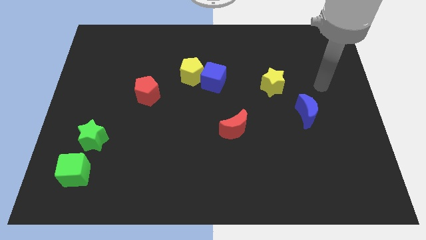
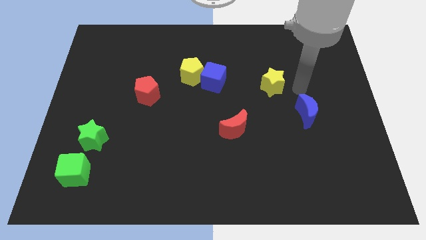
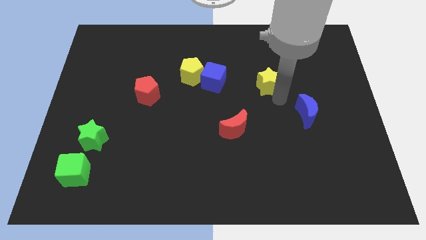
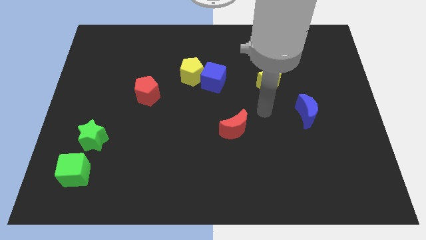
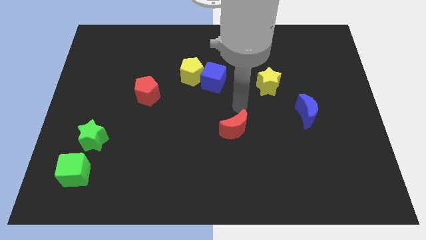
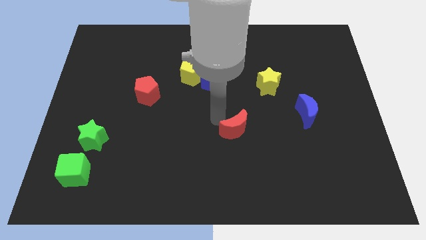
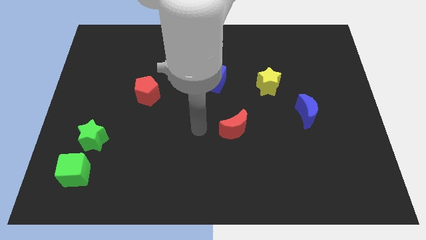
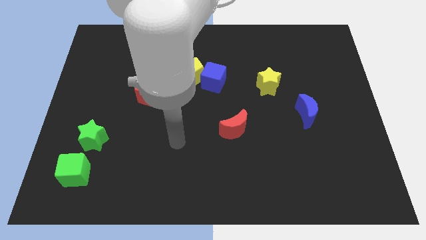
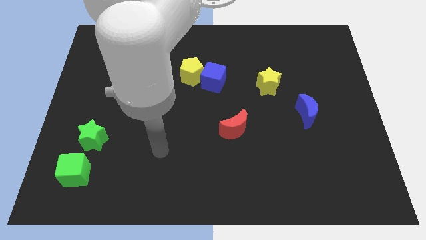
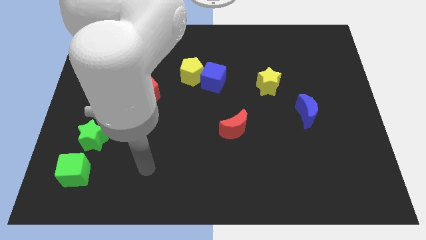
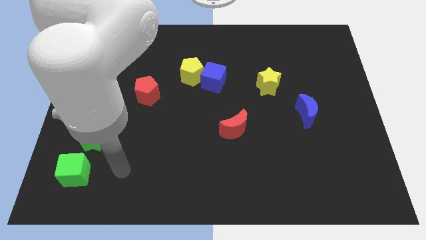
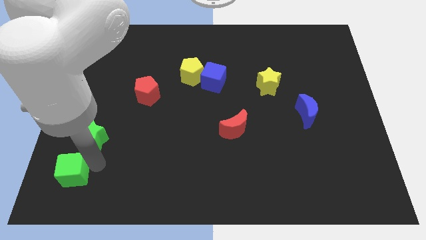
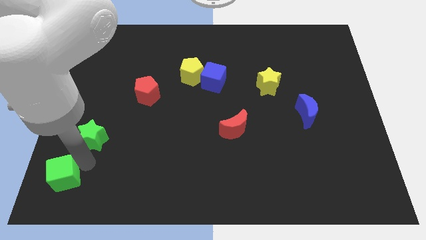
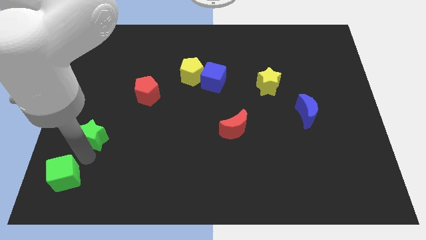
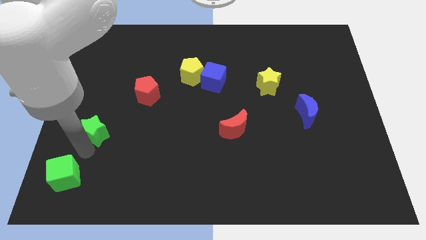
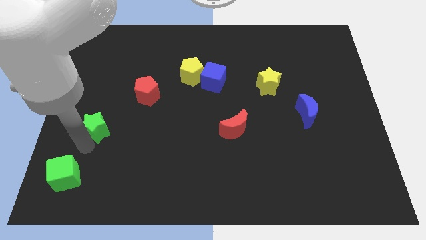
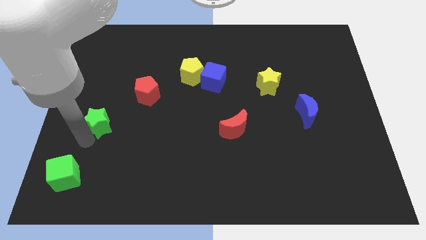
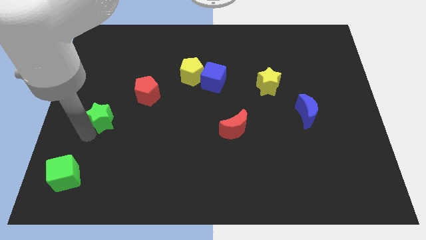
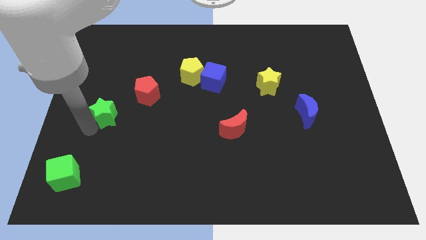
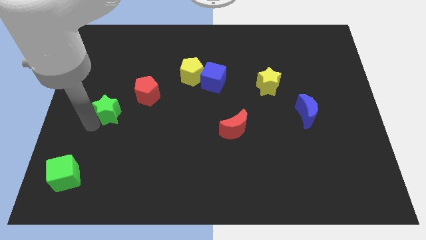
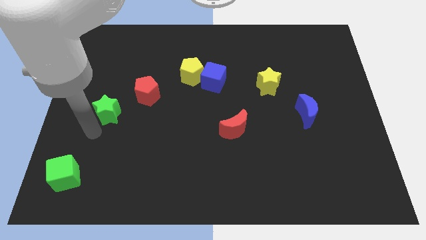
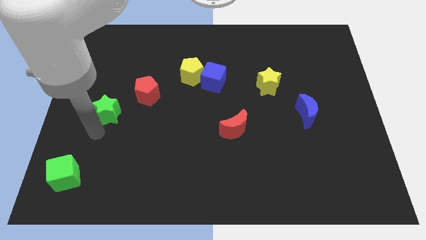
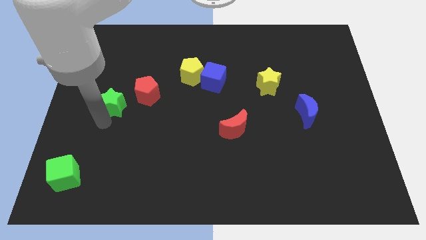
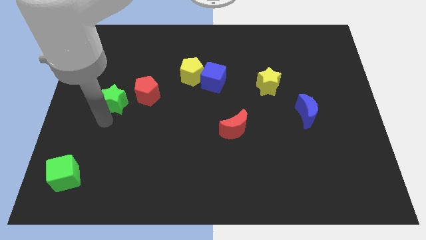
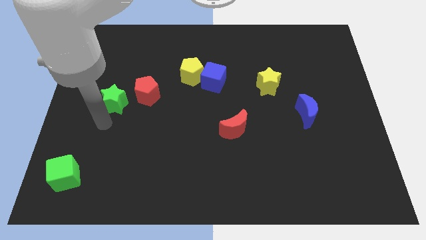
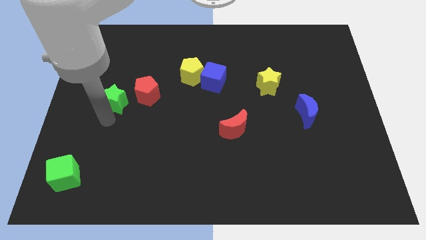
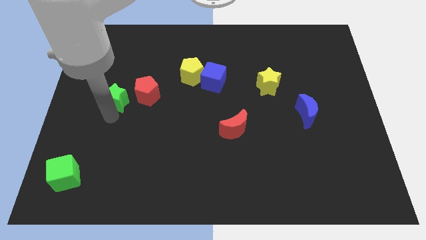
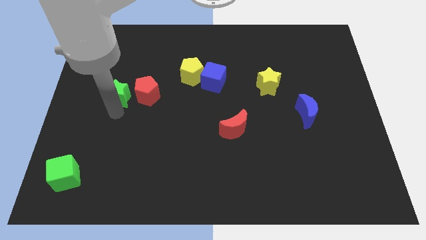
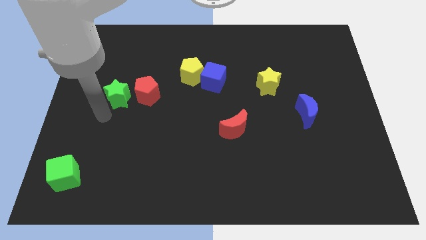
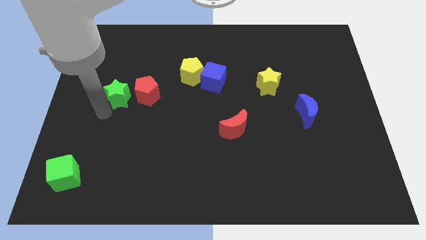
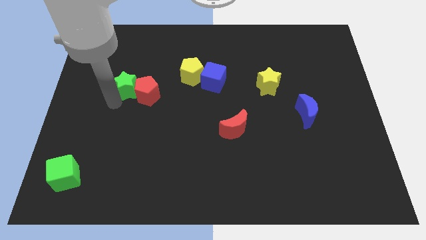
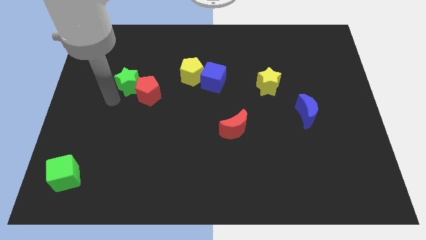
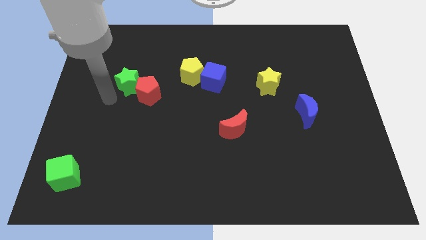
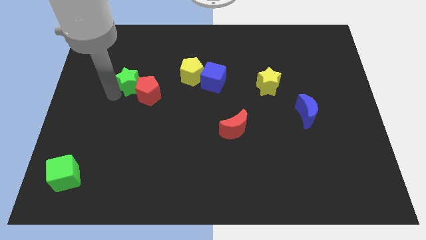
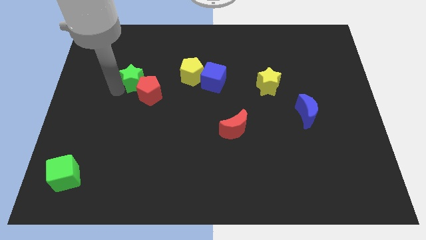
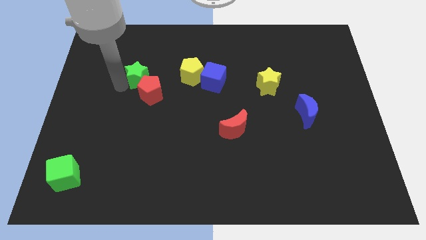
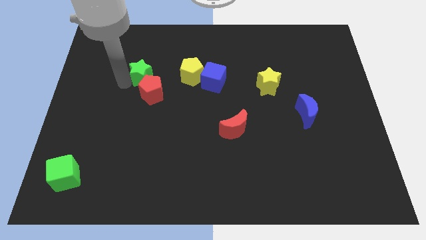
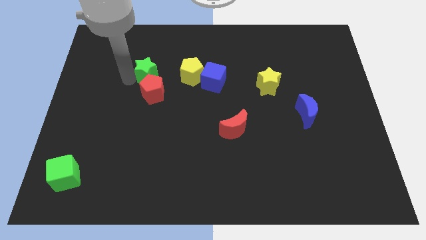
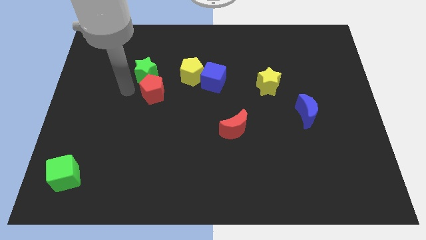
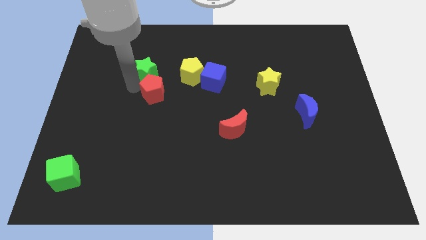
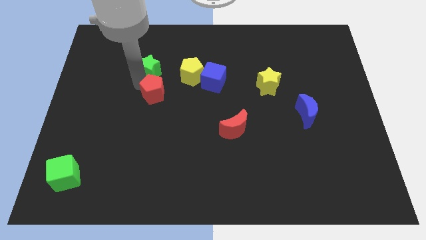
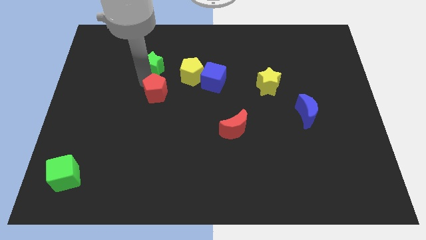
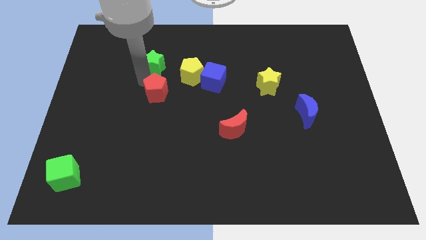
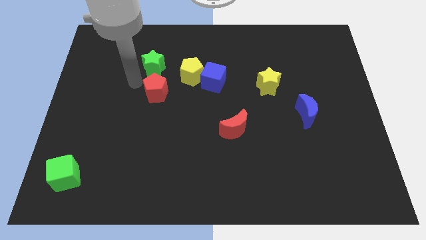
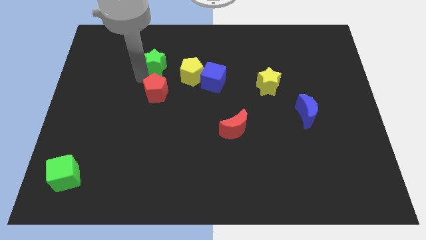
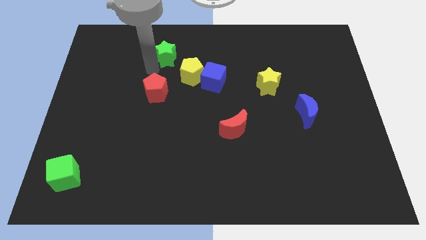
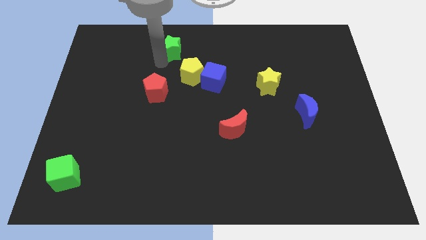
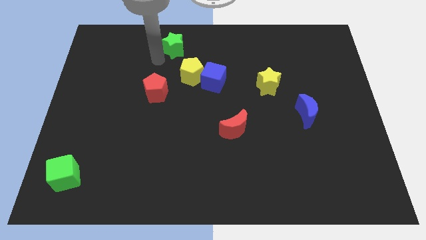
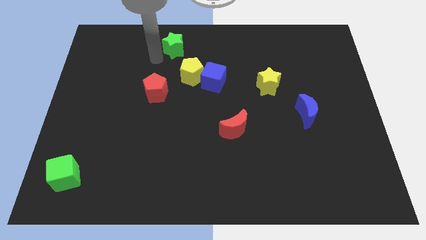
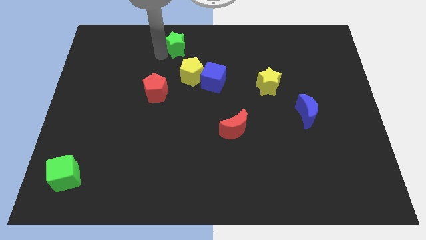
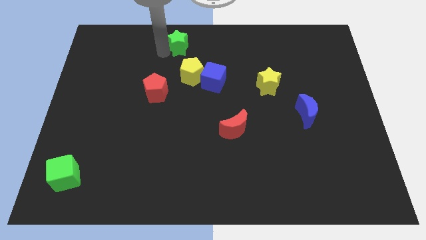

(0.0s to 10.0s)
slide the green star to the top

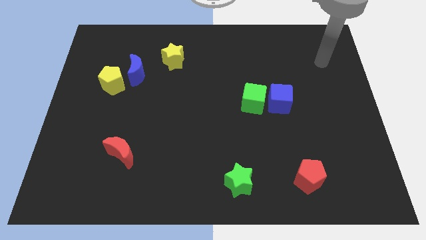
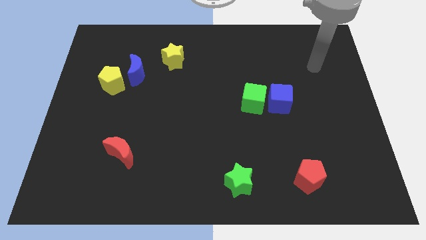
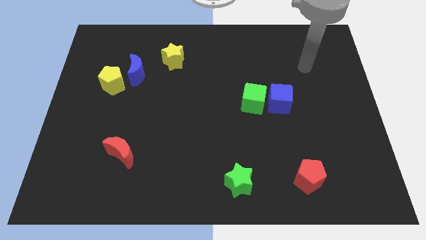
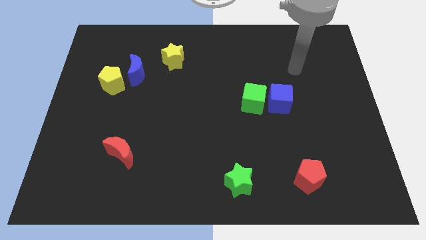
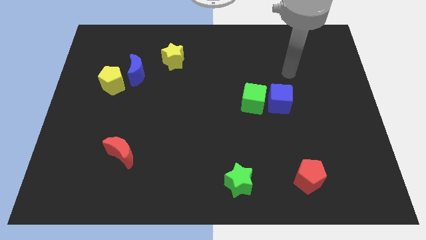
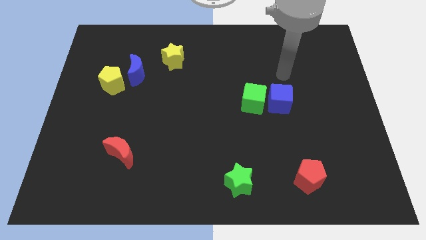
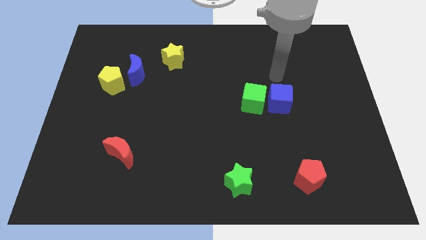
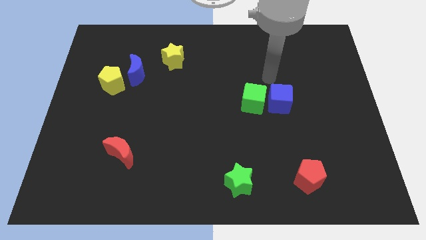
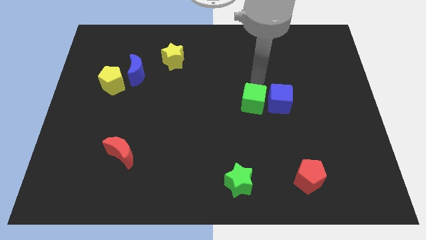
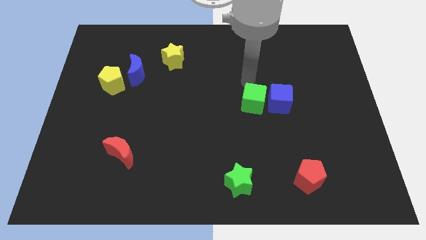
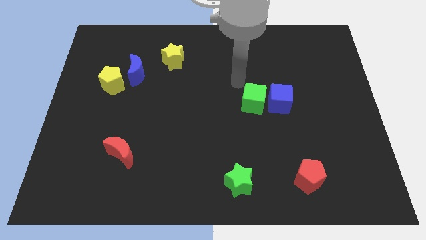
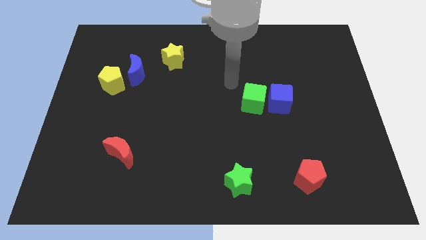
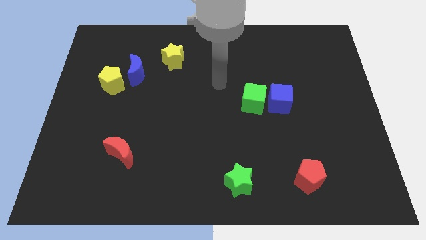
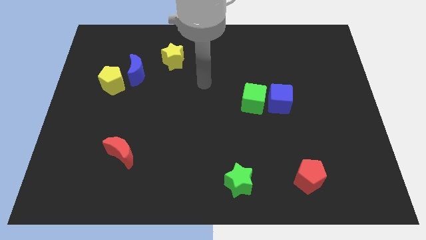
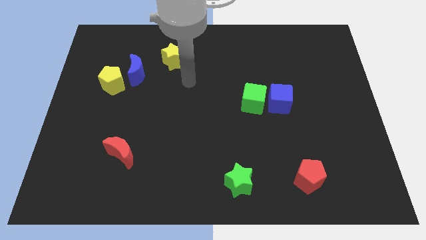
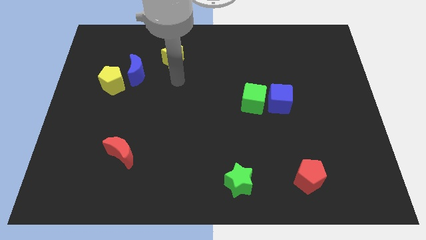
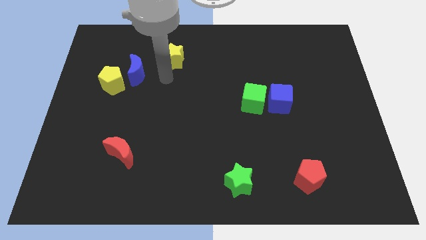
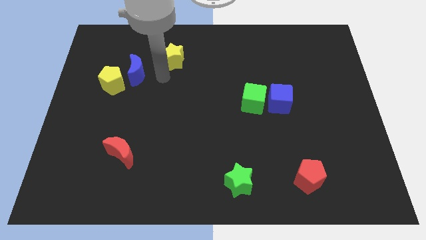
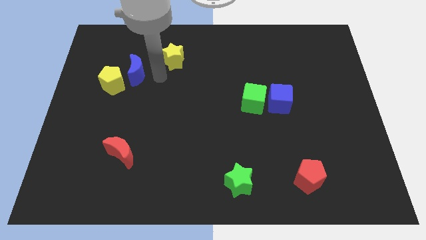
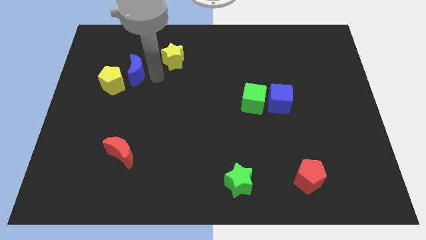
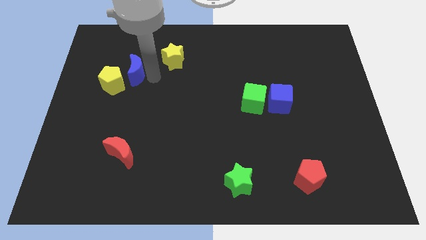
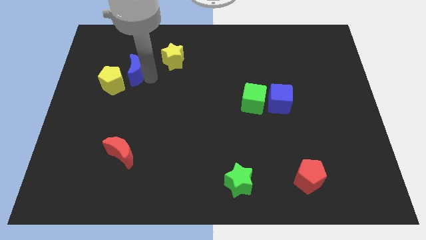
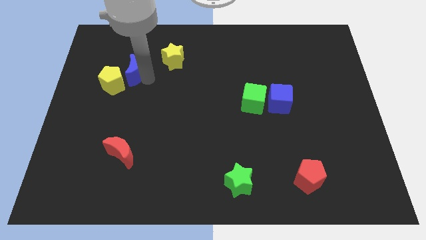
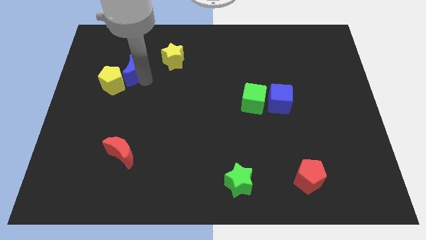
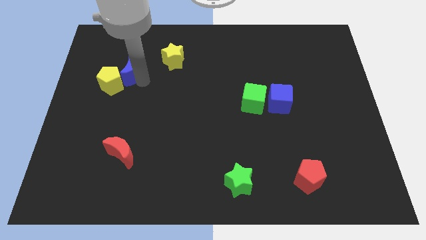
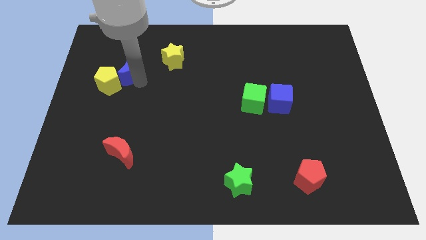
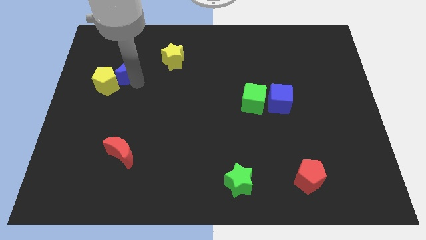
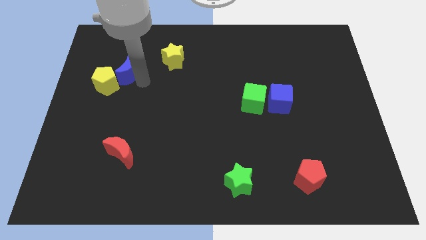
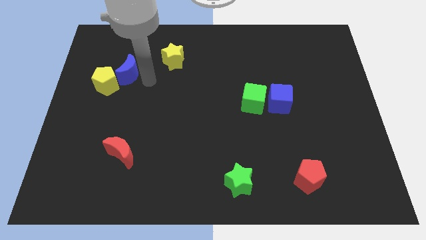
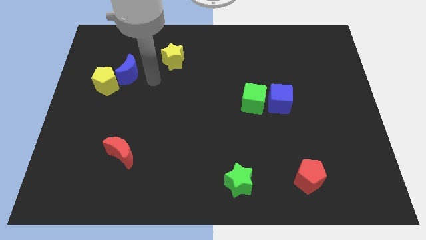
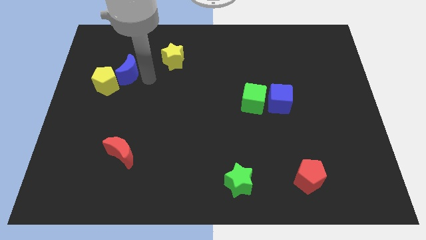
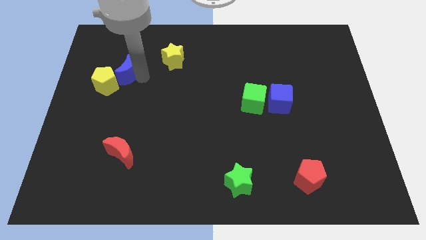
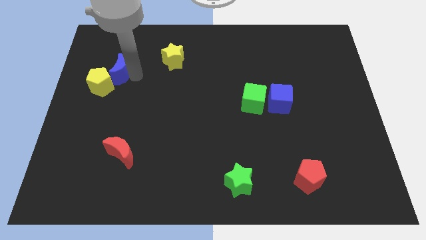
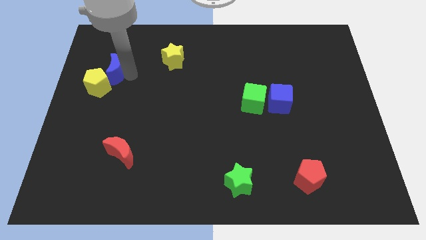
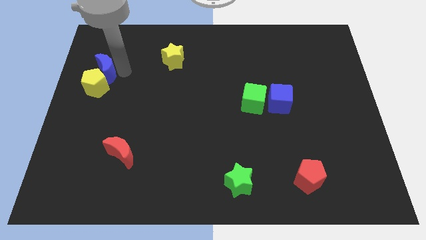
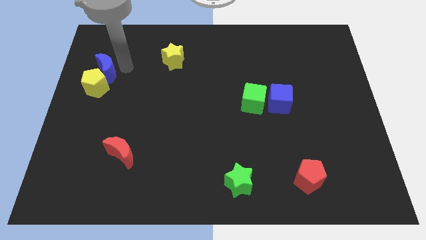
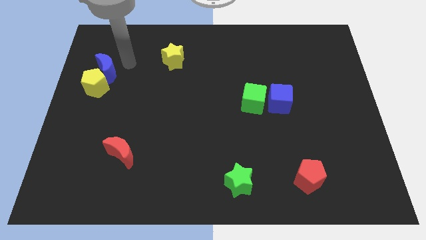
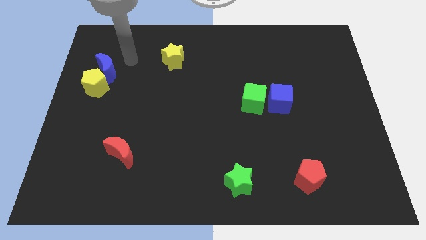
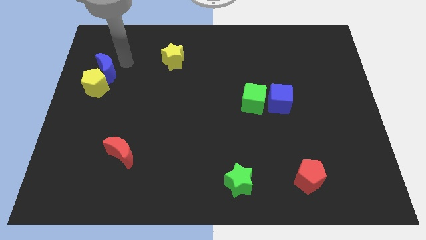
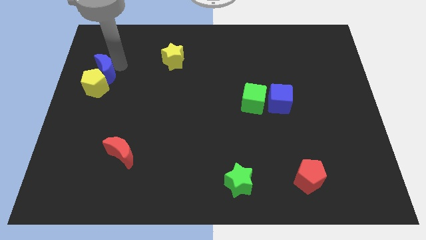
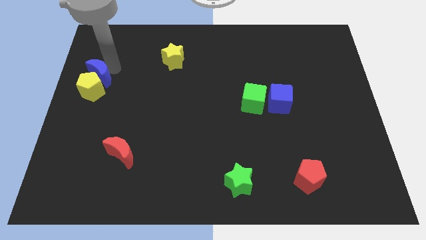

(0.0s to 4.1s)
slide the blue moon to the left side
